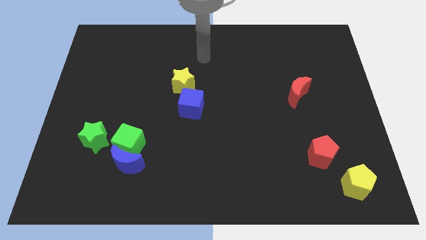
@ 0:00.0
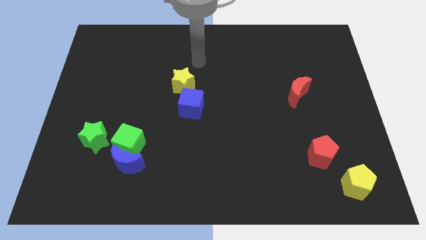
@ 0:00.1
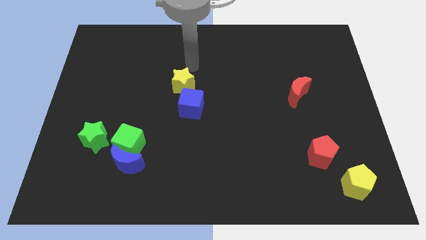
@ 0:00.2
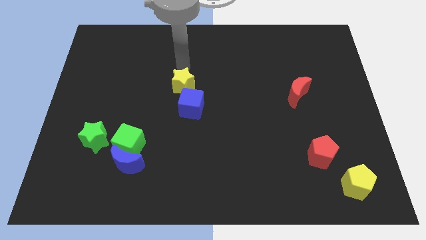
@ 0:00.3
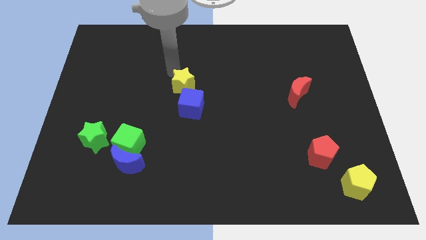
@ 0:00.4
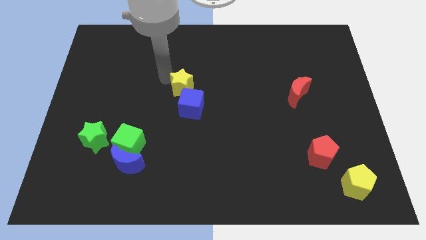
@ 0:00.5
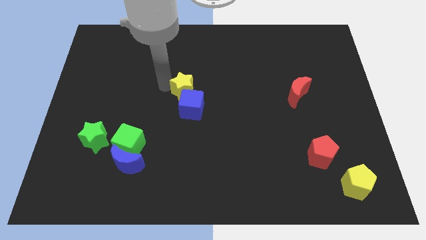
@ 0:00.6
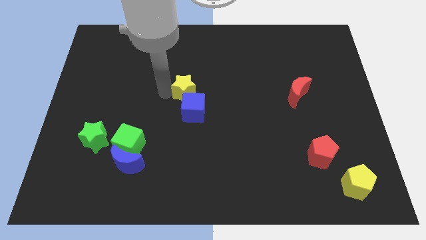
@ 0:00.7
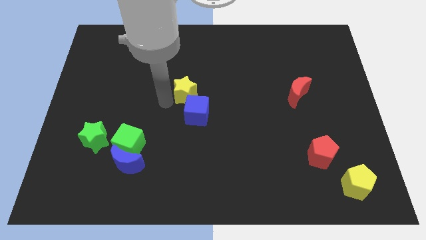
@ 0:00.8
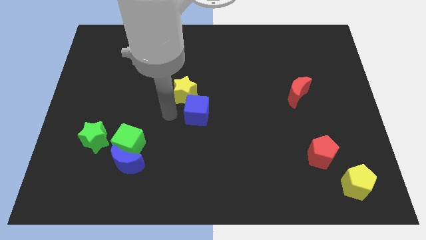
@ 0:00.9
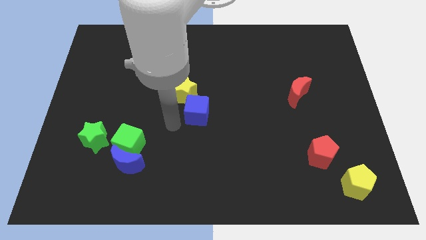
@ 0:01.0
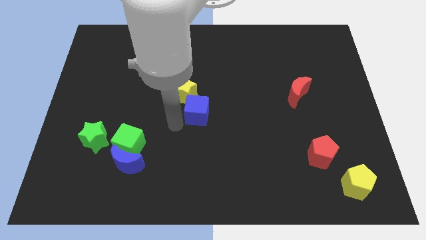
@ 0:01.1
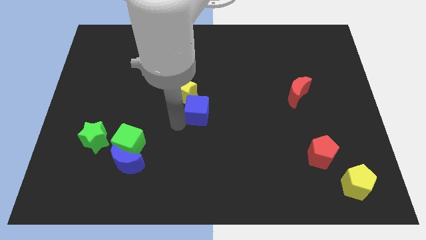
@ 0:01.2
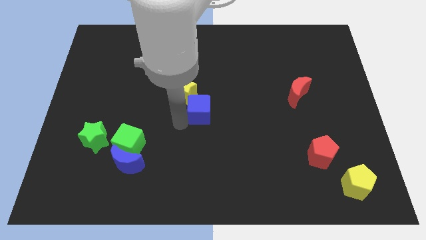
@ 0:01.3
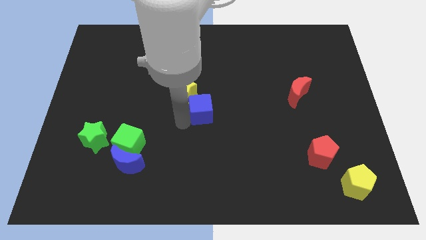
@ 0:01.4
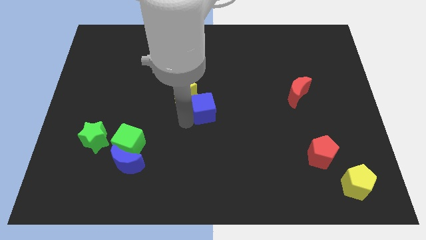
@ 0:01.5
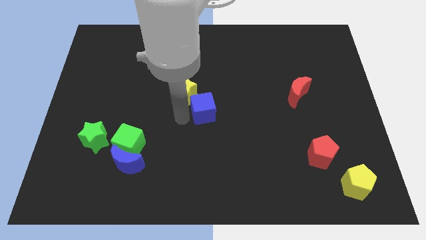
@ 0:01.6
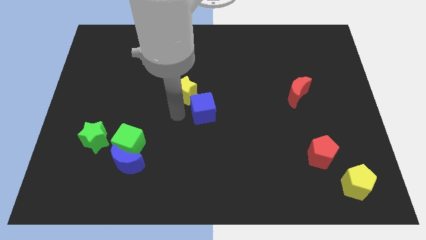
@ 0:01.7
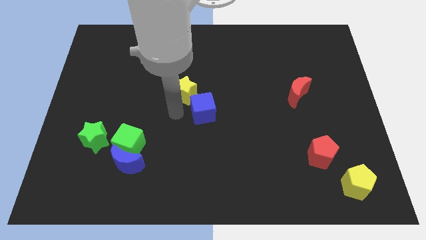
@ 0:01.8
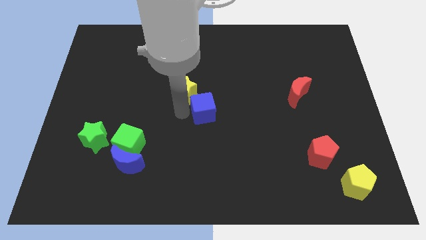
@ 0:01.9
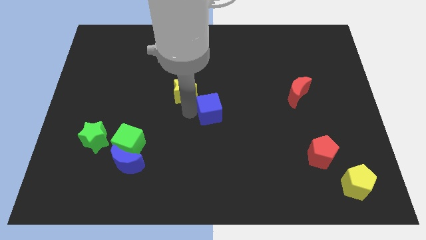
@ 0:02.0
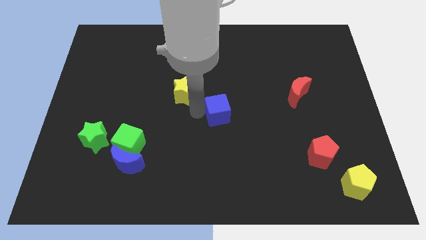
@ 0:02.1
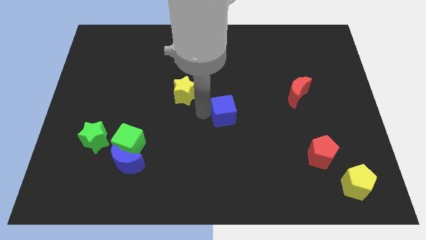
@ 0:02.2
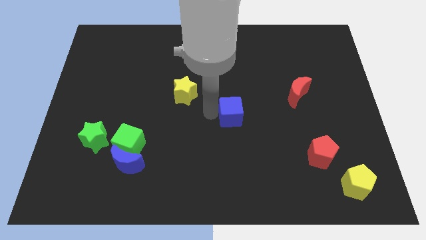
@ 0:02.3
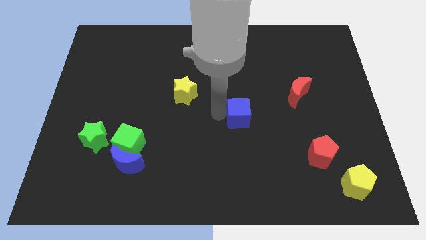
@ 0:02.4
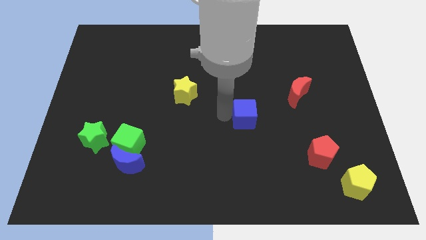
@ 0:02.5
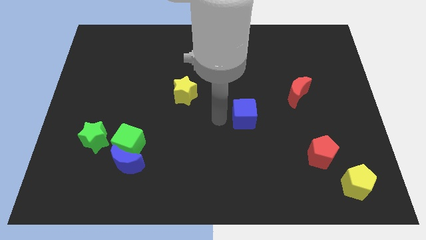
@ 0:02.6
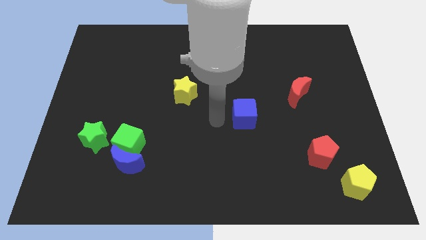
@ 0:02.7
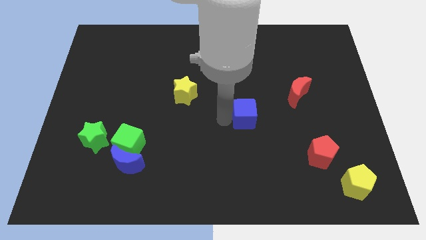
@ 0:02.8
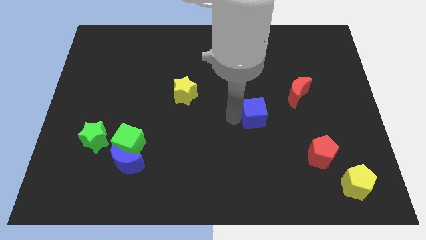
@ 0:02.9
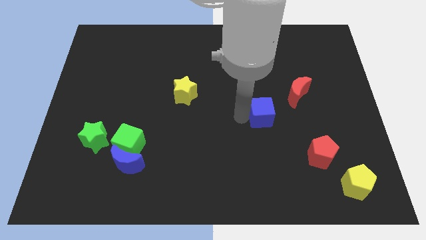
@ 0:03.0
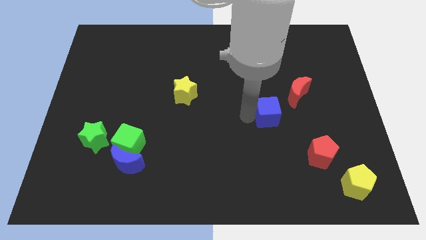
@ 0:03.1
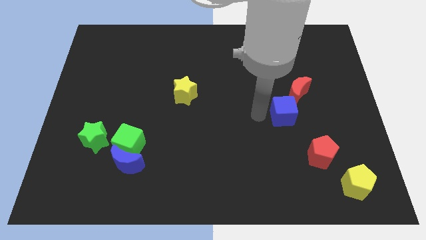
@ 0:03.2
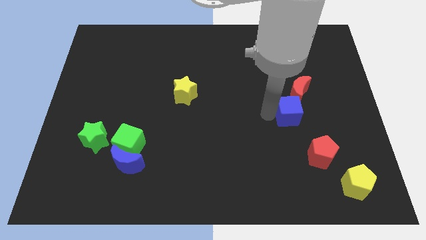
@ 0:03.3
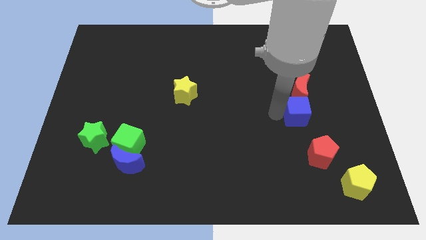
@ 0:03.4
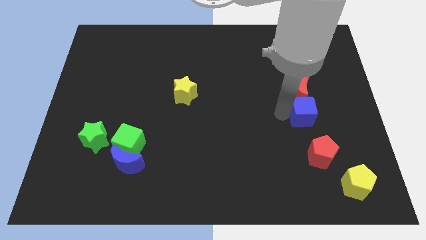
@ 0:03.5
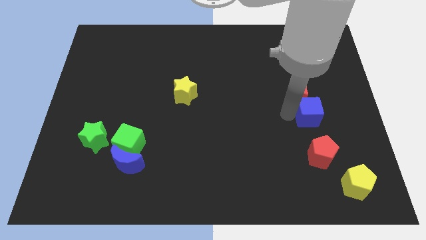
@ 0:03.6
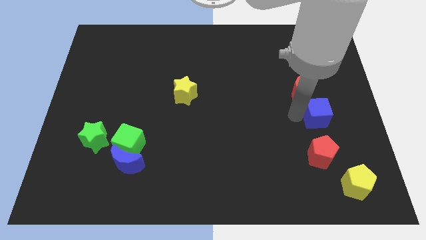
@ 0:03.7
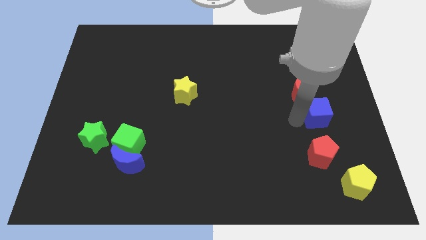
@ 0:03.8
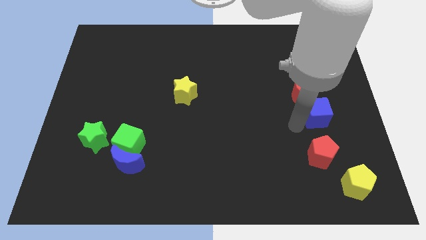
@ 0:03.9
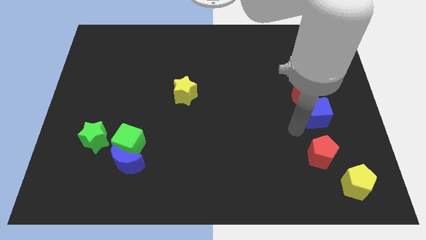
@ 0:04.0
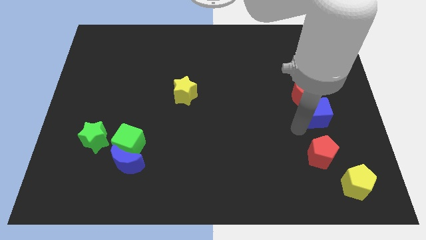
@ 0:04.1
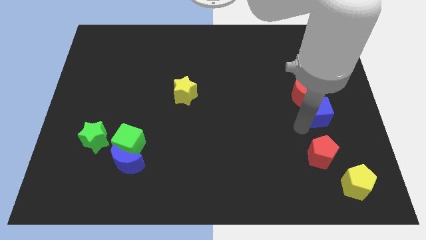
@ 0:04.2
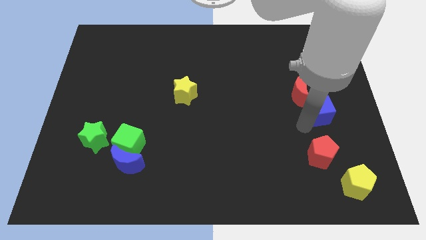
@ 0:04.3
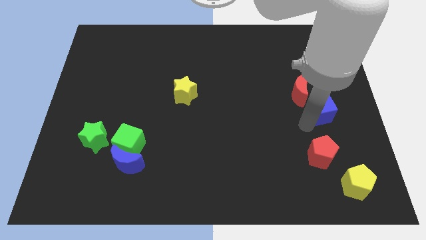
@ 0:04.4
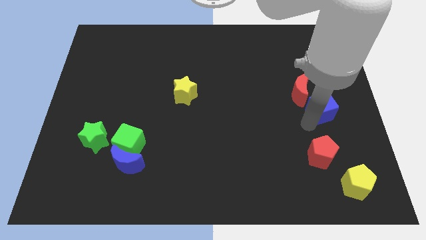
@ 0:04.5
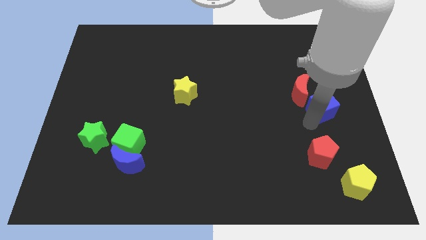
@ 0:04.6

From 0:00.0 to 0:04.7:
slide the blue cube to the center right

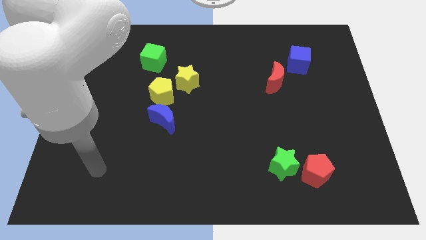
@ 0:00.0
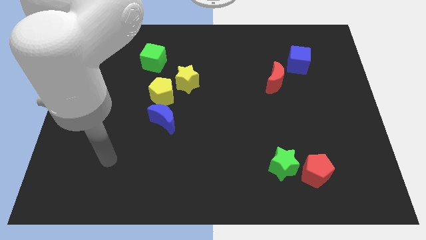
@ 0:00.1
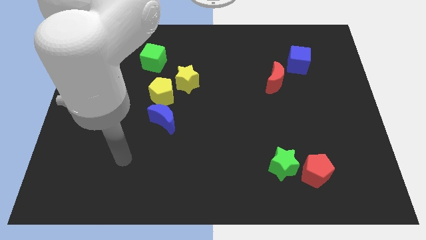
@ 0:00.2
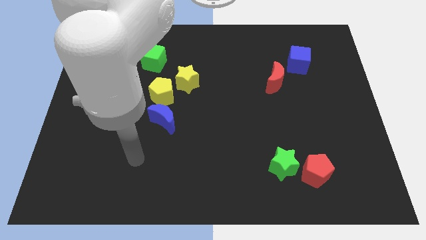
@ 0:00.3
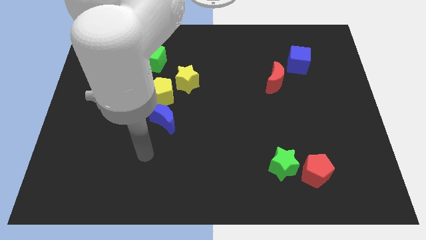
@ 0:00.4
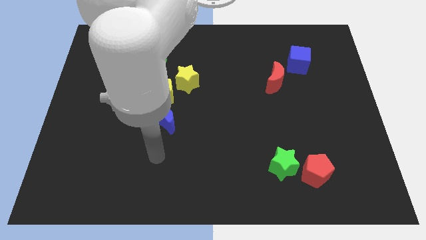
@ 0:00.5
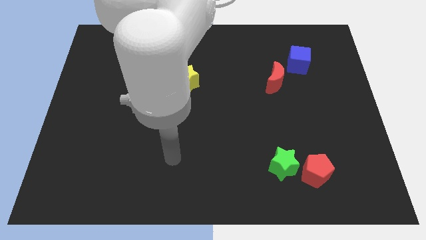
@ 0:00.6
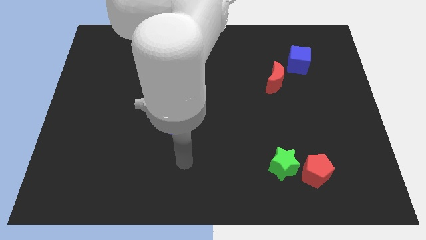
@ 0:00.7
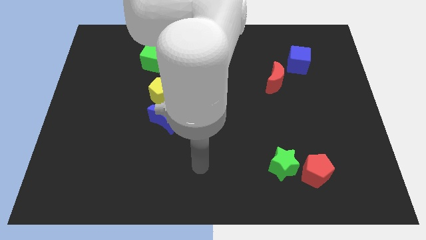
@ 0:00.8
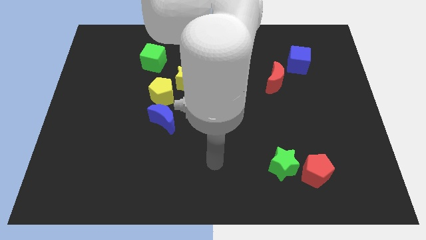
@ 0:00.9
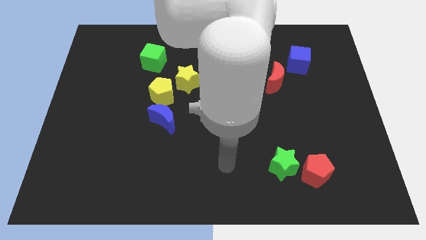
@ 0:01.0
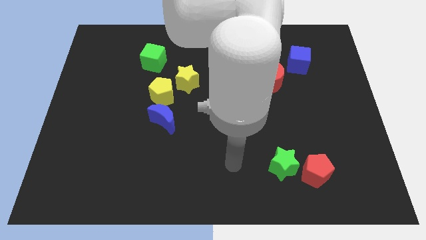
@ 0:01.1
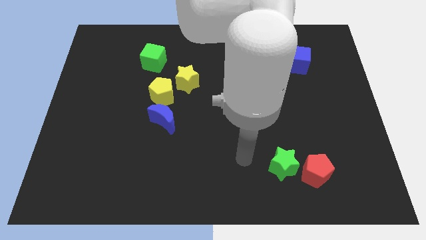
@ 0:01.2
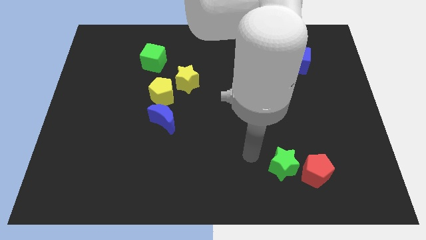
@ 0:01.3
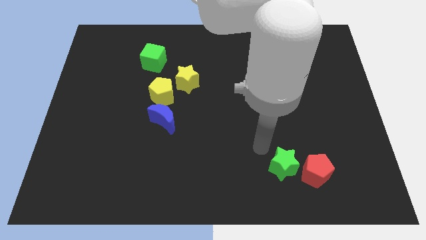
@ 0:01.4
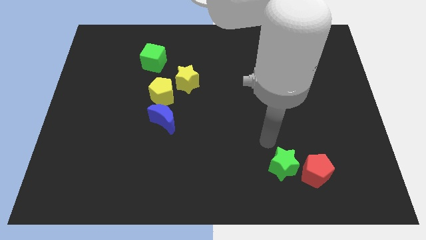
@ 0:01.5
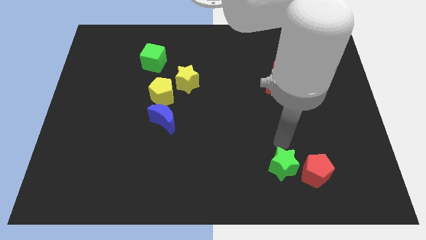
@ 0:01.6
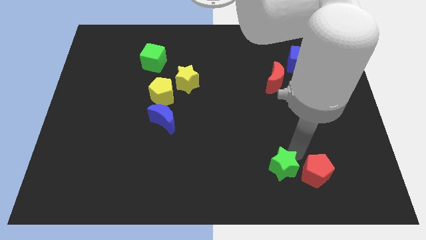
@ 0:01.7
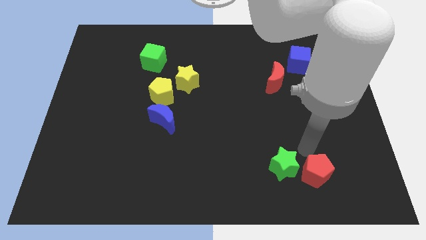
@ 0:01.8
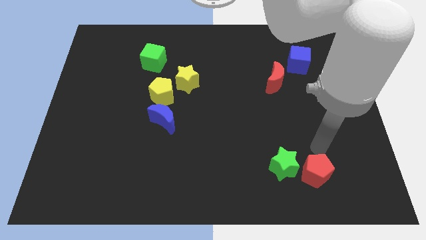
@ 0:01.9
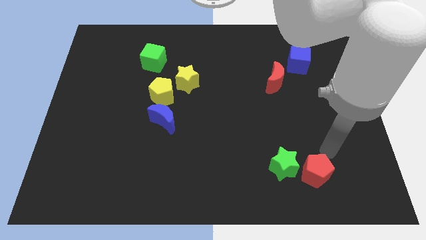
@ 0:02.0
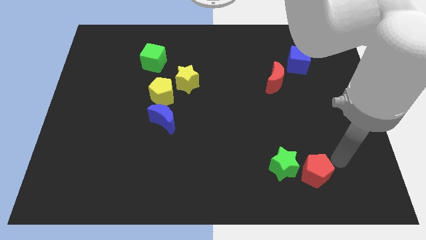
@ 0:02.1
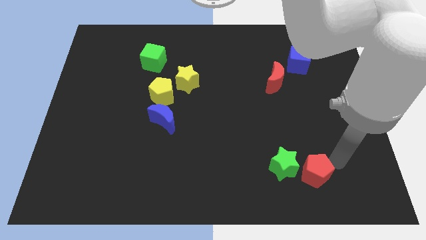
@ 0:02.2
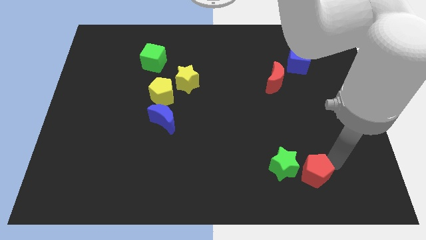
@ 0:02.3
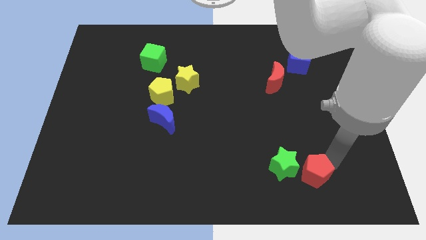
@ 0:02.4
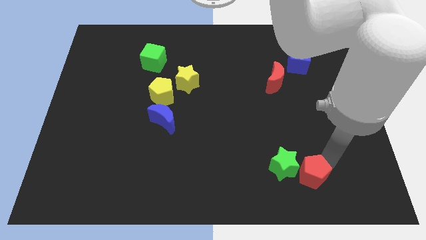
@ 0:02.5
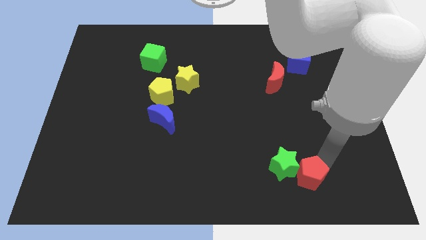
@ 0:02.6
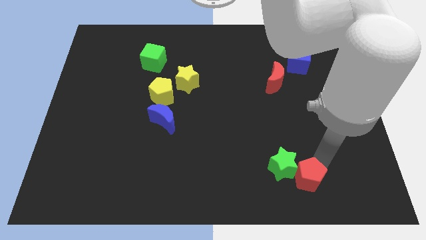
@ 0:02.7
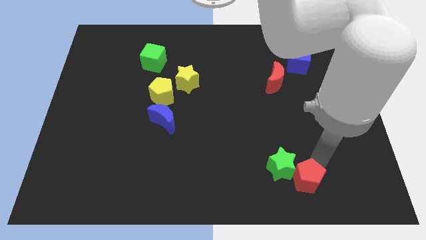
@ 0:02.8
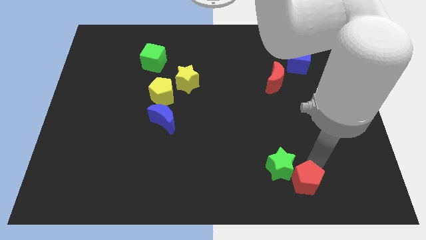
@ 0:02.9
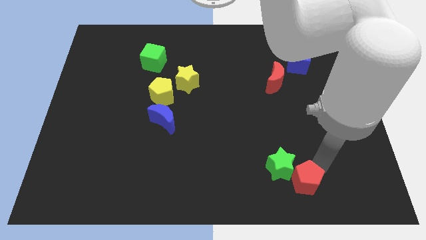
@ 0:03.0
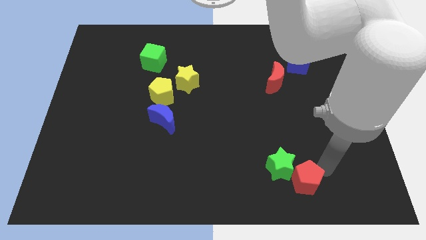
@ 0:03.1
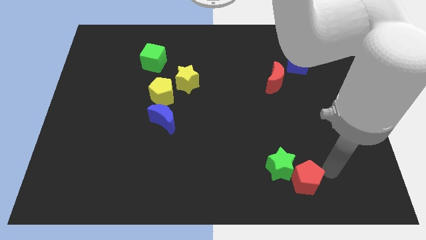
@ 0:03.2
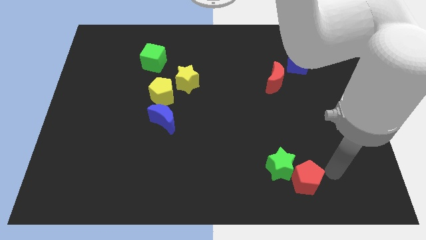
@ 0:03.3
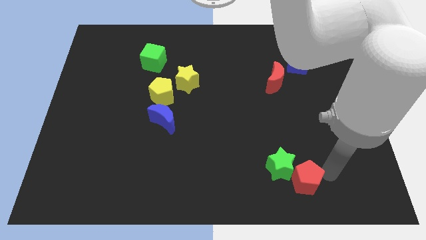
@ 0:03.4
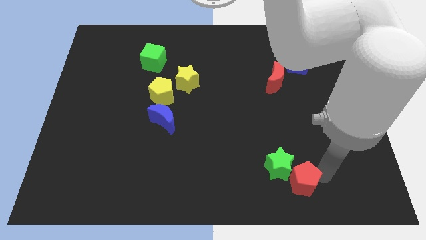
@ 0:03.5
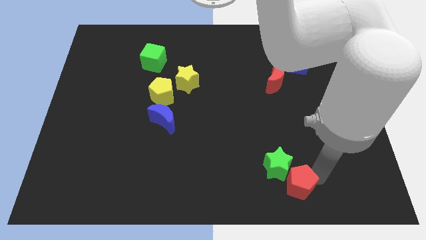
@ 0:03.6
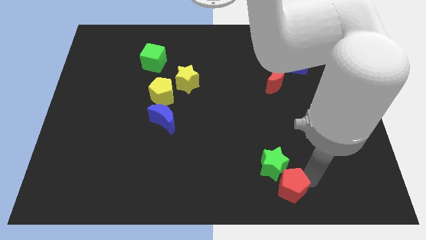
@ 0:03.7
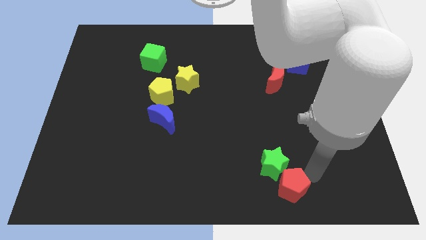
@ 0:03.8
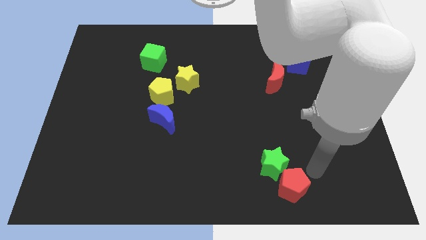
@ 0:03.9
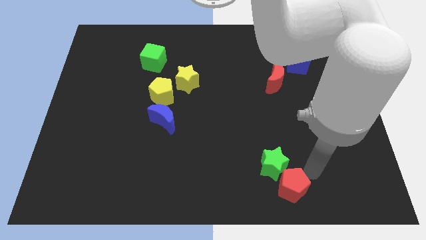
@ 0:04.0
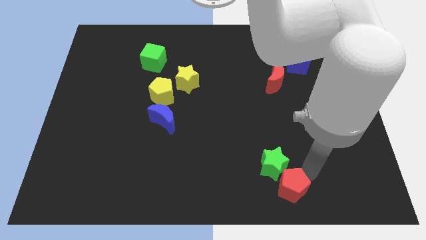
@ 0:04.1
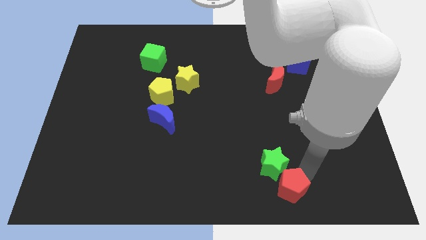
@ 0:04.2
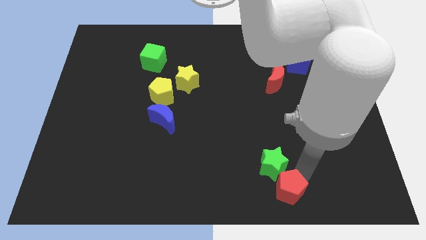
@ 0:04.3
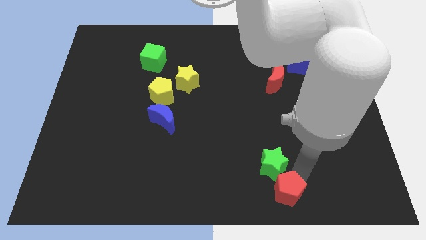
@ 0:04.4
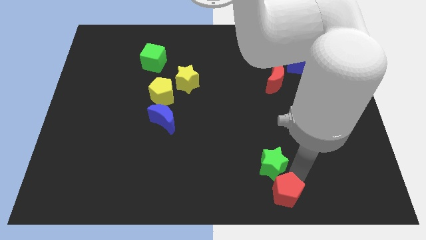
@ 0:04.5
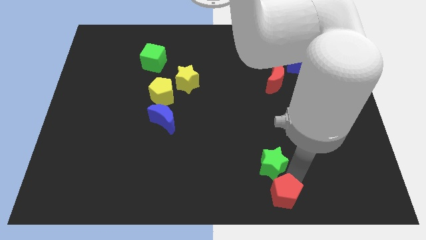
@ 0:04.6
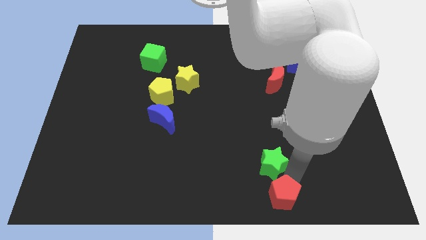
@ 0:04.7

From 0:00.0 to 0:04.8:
move the red pentagon to the bottom side
